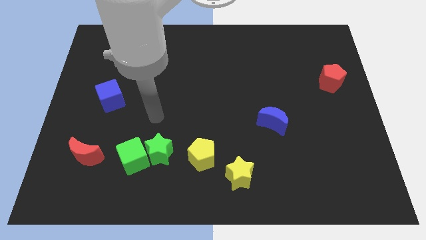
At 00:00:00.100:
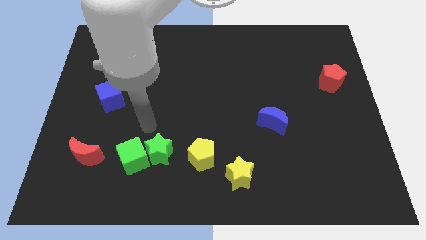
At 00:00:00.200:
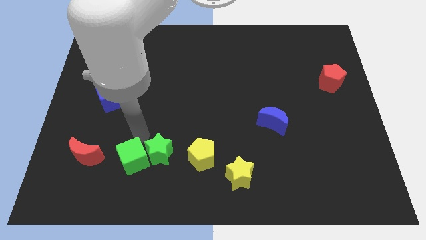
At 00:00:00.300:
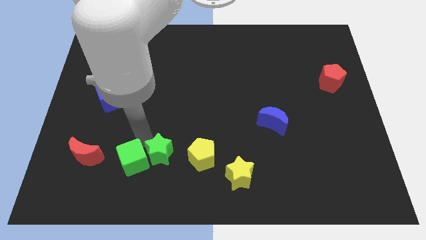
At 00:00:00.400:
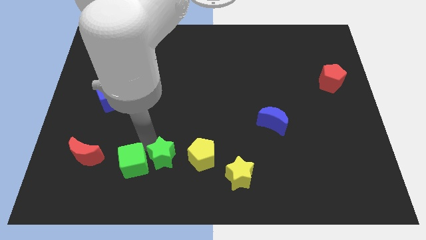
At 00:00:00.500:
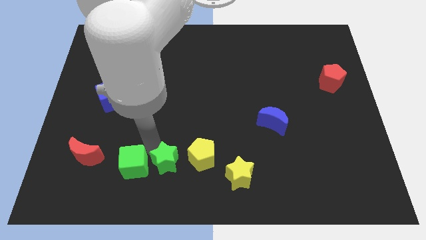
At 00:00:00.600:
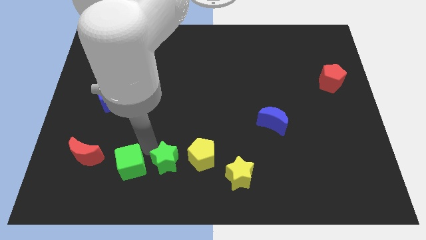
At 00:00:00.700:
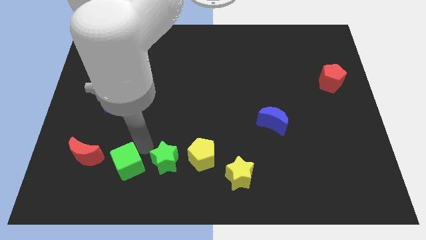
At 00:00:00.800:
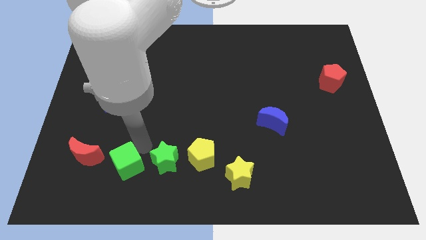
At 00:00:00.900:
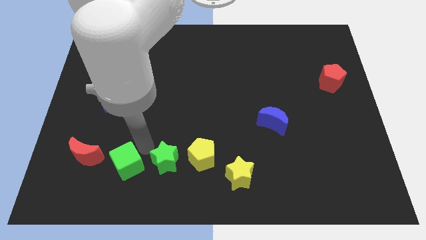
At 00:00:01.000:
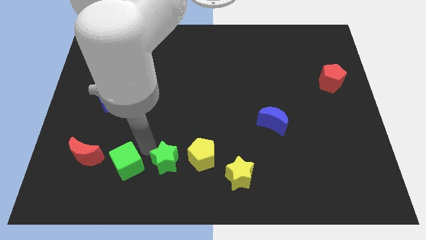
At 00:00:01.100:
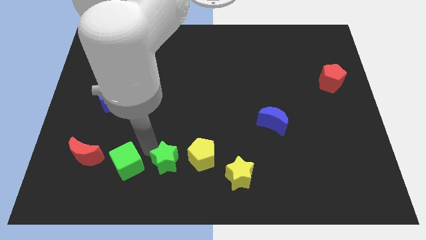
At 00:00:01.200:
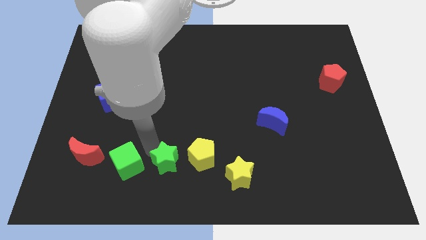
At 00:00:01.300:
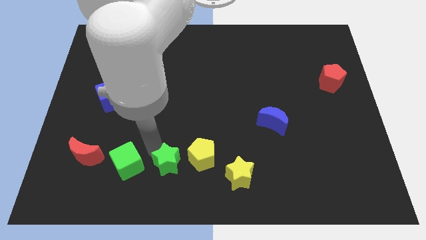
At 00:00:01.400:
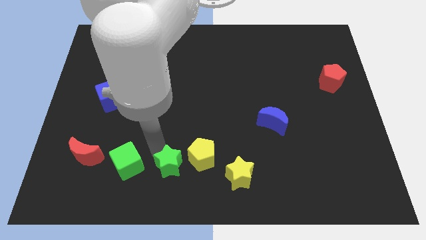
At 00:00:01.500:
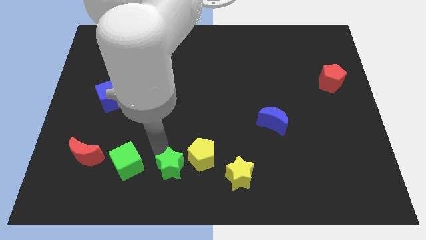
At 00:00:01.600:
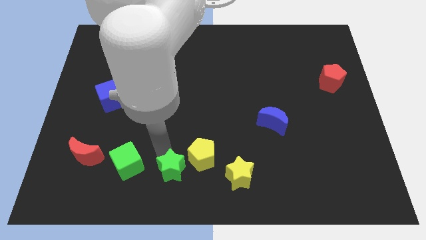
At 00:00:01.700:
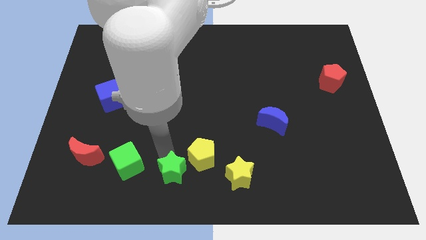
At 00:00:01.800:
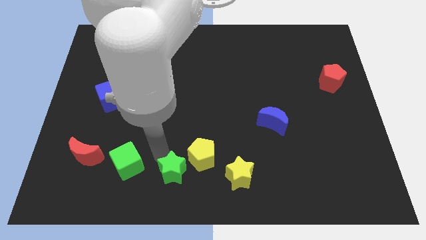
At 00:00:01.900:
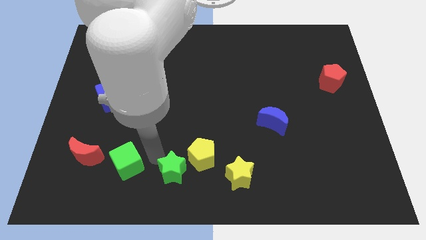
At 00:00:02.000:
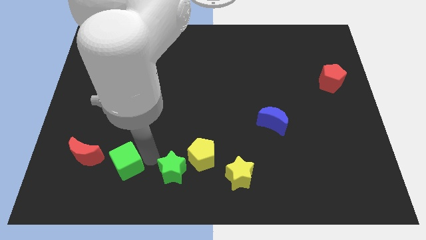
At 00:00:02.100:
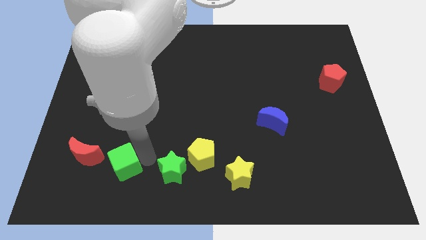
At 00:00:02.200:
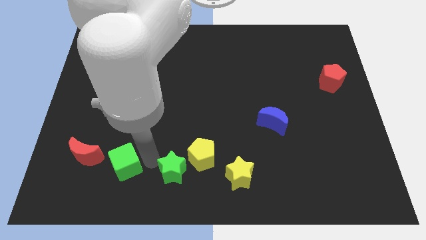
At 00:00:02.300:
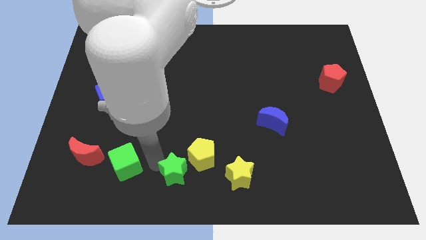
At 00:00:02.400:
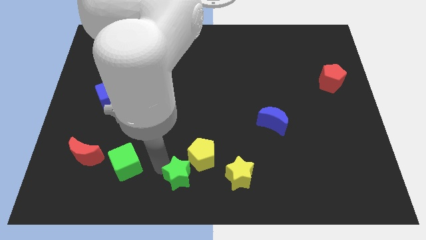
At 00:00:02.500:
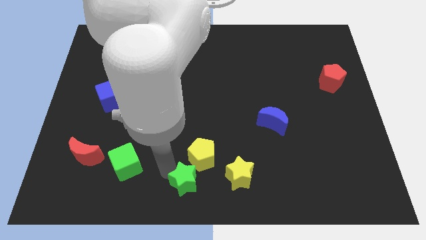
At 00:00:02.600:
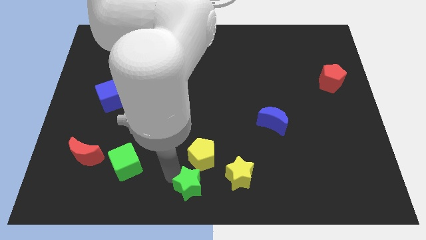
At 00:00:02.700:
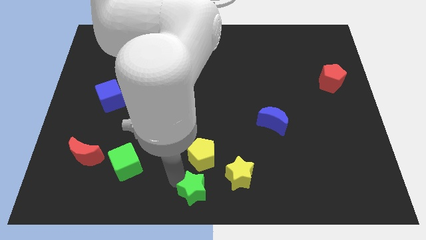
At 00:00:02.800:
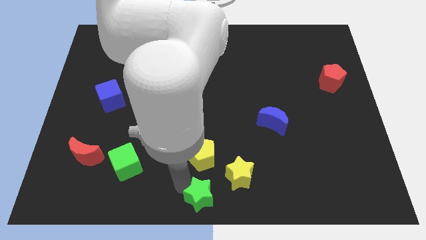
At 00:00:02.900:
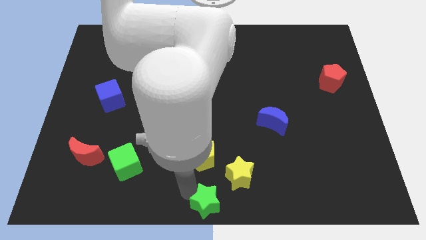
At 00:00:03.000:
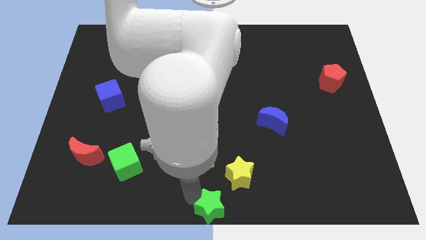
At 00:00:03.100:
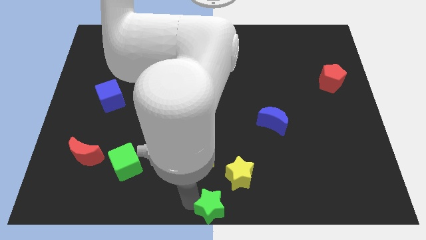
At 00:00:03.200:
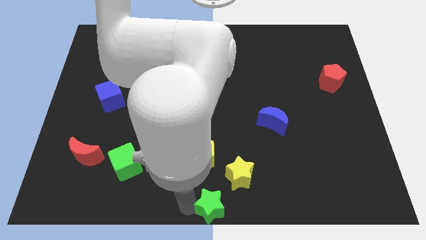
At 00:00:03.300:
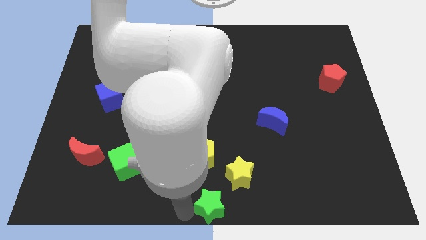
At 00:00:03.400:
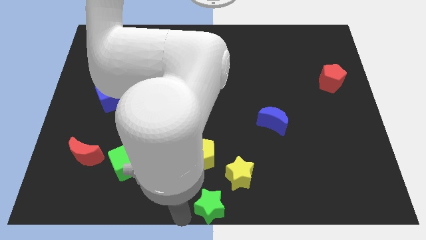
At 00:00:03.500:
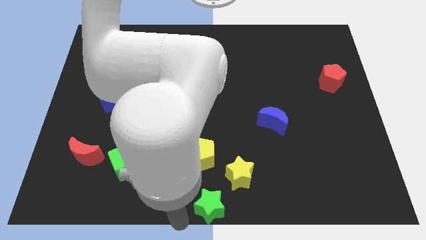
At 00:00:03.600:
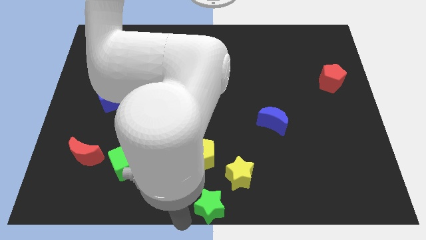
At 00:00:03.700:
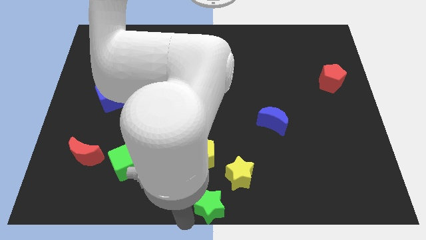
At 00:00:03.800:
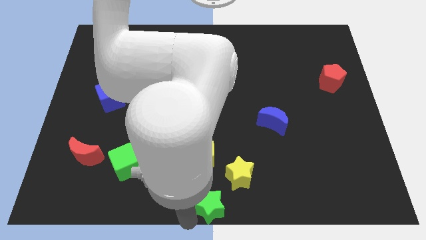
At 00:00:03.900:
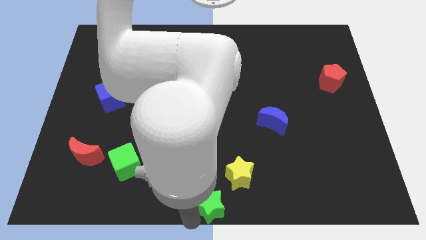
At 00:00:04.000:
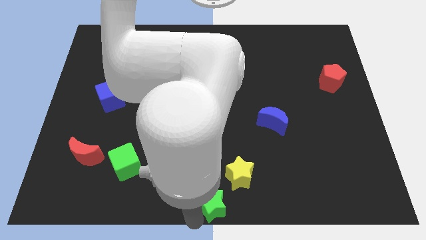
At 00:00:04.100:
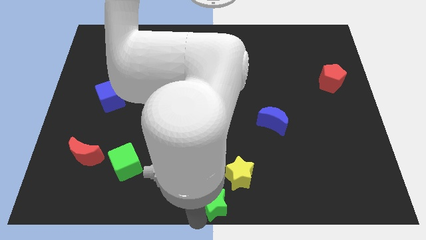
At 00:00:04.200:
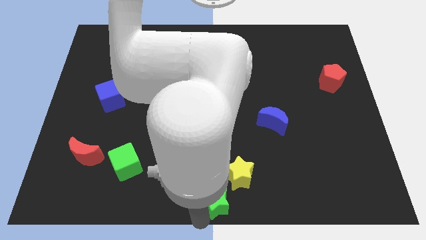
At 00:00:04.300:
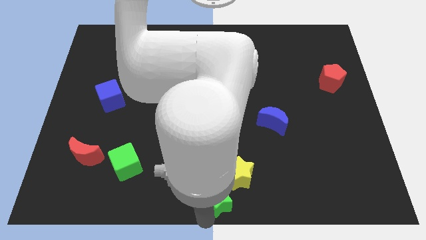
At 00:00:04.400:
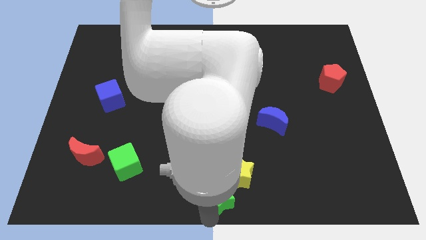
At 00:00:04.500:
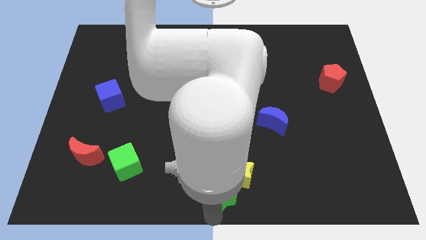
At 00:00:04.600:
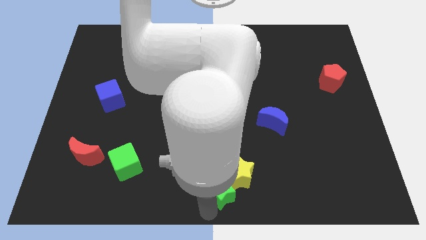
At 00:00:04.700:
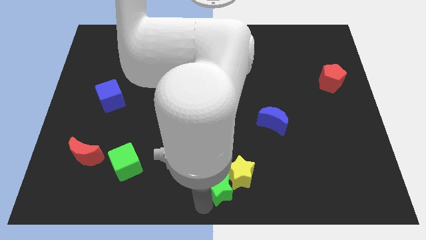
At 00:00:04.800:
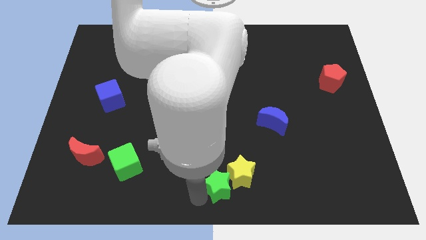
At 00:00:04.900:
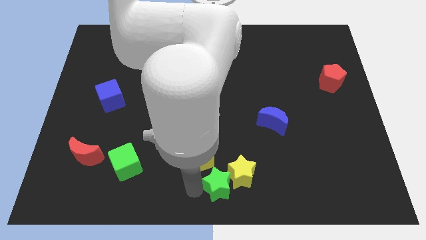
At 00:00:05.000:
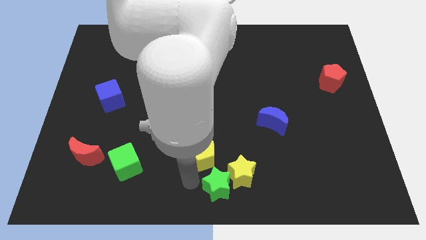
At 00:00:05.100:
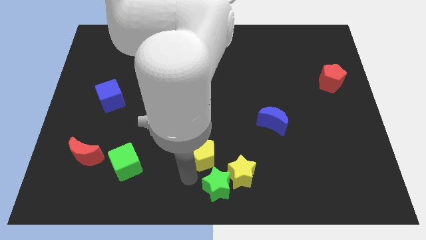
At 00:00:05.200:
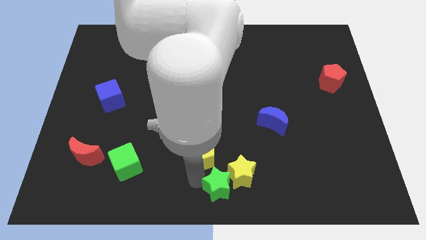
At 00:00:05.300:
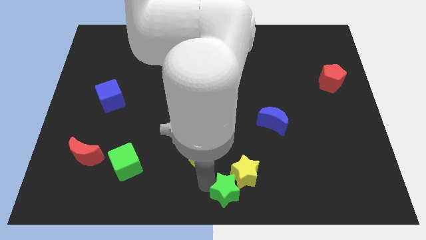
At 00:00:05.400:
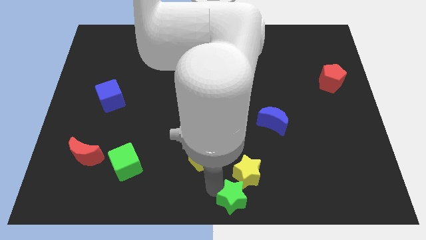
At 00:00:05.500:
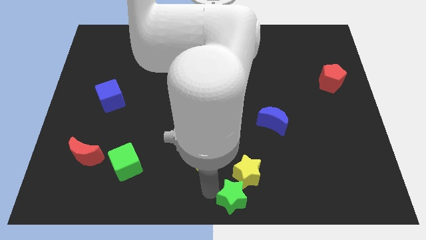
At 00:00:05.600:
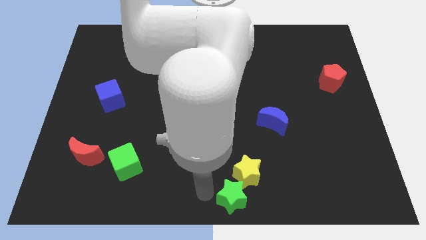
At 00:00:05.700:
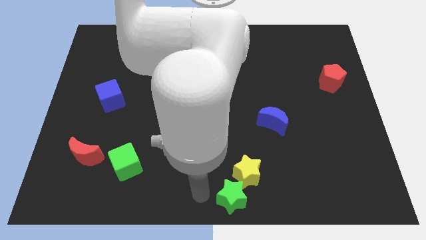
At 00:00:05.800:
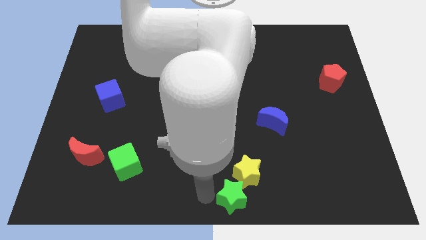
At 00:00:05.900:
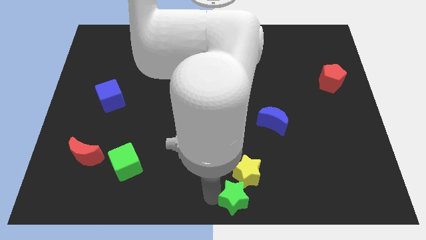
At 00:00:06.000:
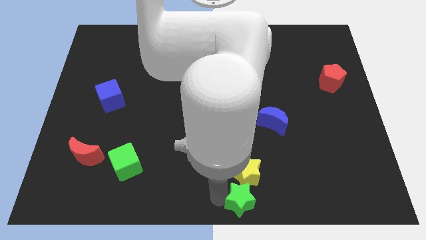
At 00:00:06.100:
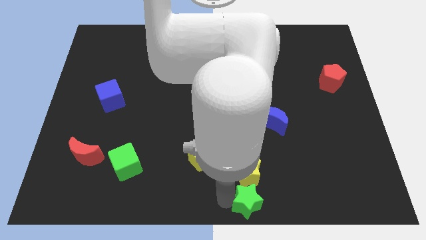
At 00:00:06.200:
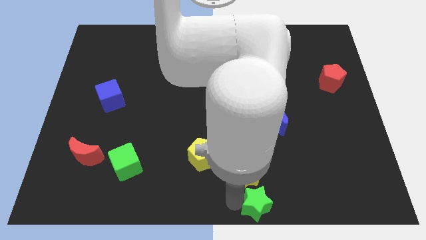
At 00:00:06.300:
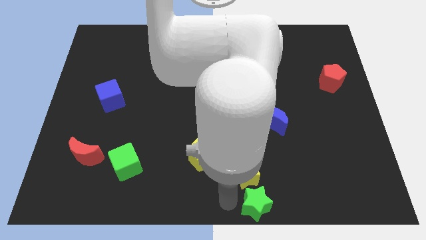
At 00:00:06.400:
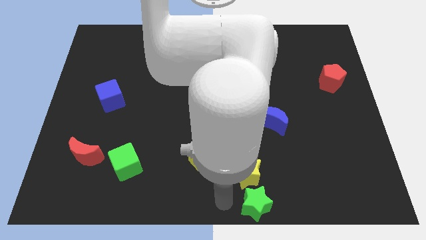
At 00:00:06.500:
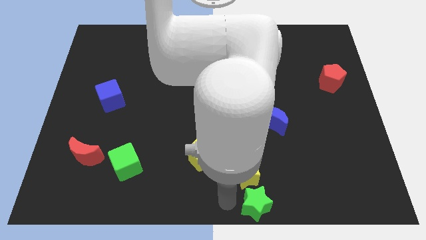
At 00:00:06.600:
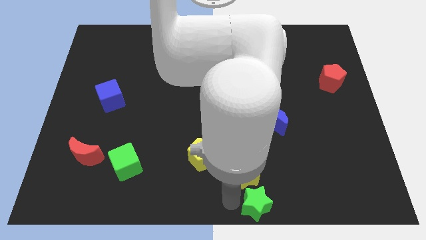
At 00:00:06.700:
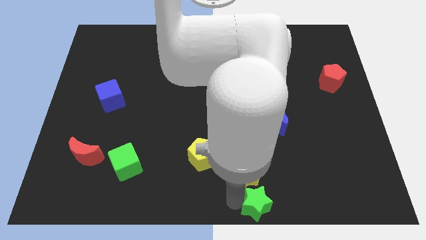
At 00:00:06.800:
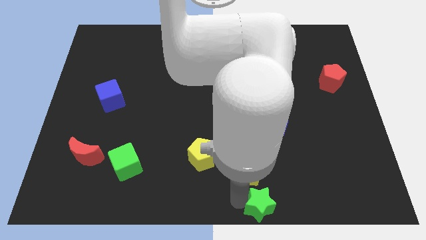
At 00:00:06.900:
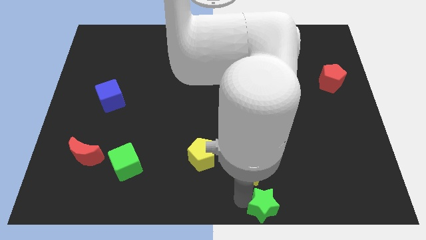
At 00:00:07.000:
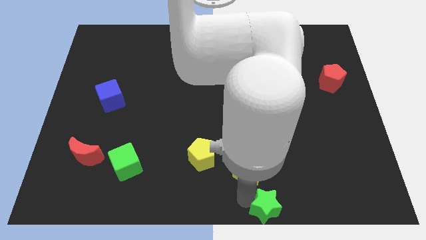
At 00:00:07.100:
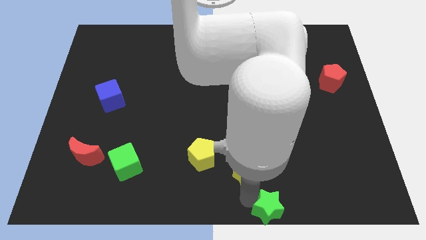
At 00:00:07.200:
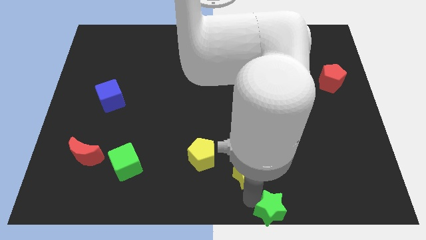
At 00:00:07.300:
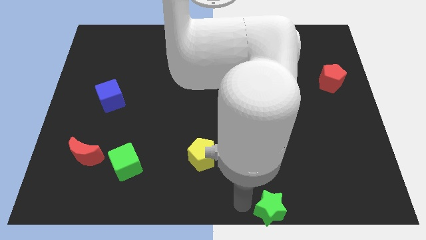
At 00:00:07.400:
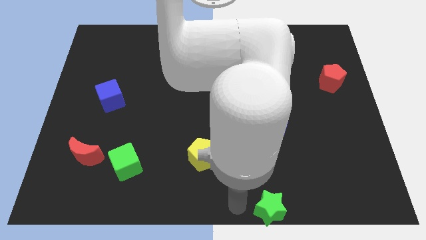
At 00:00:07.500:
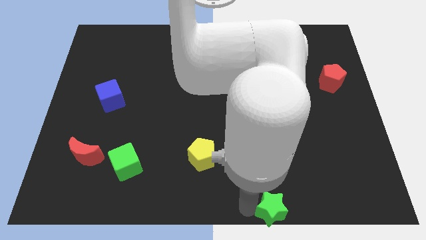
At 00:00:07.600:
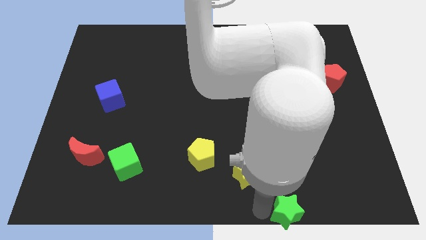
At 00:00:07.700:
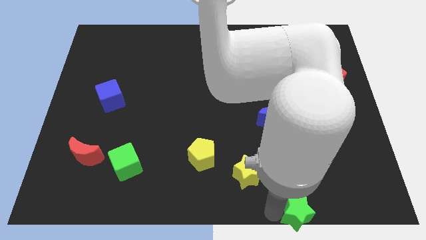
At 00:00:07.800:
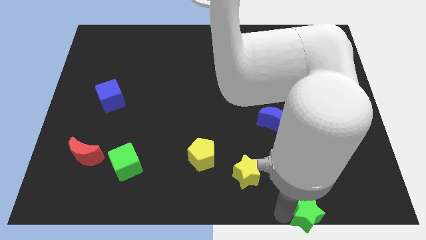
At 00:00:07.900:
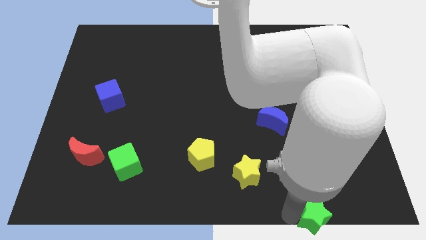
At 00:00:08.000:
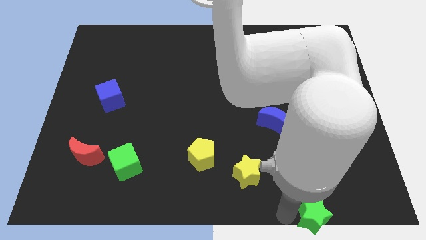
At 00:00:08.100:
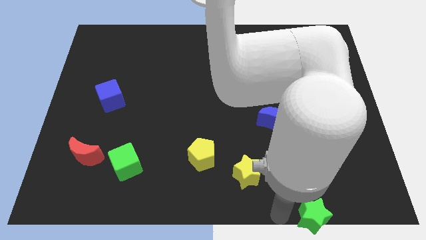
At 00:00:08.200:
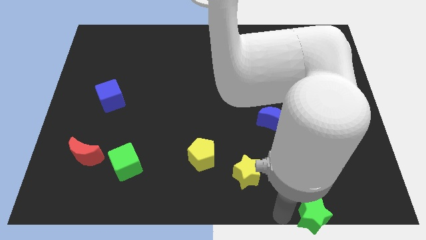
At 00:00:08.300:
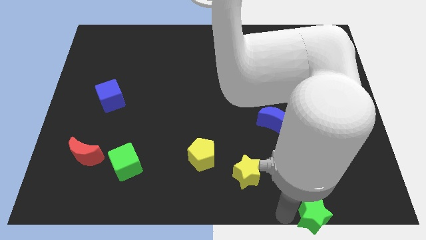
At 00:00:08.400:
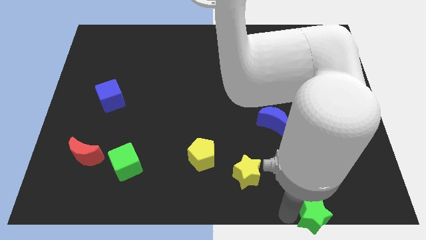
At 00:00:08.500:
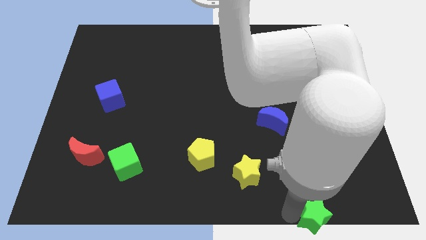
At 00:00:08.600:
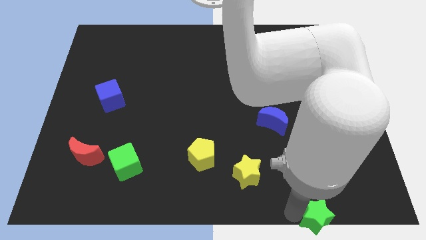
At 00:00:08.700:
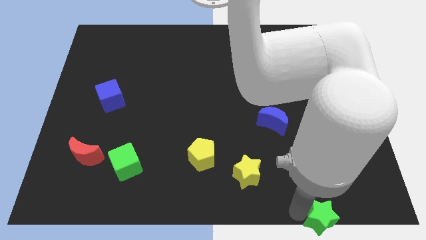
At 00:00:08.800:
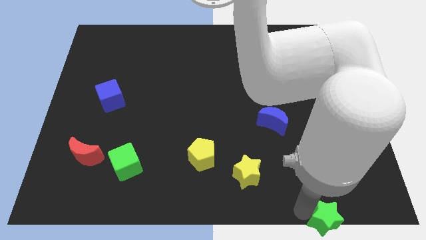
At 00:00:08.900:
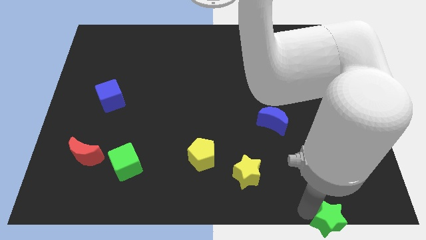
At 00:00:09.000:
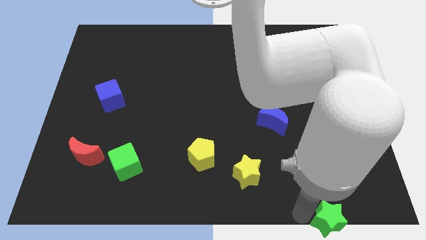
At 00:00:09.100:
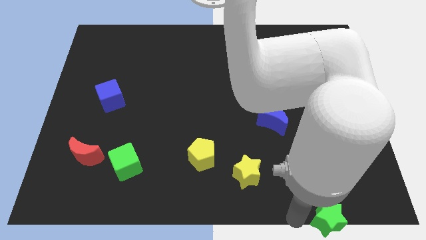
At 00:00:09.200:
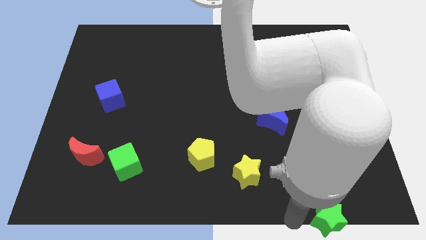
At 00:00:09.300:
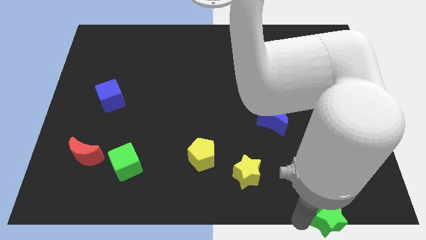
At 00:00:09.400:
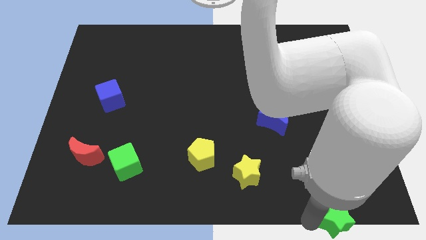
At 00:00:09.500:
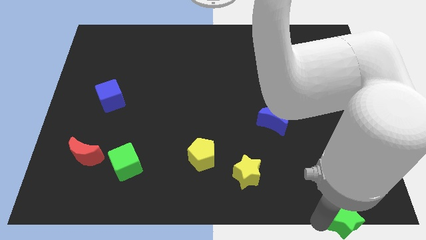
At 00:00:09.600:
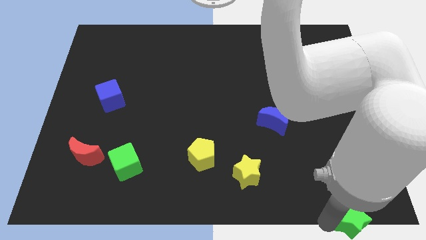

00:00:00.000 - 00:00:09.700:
put the green star to the lower right corner
